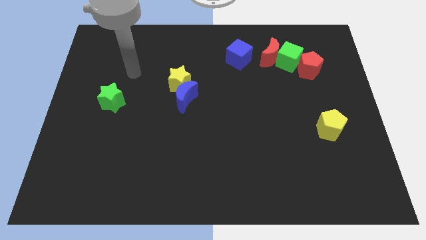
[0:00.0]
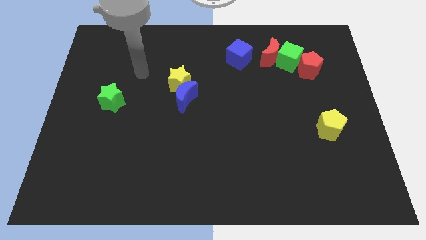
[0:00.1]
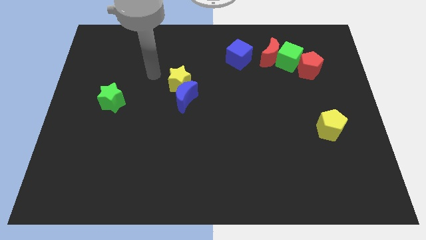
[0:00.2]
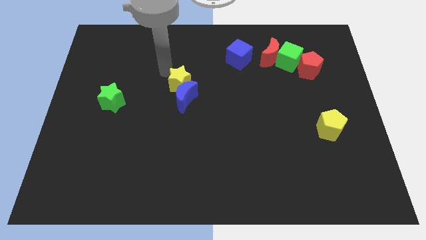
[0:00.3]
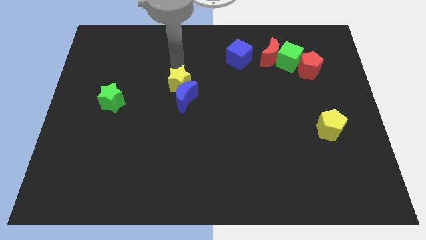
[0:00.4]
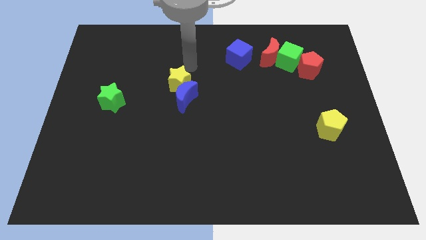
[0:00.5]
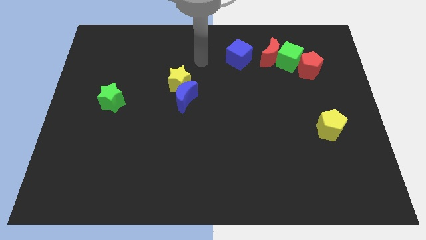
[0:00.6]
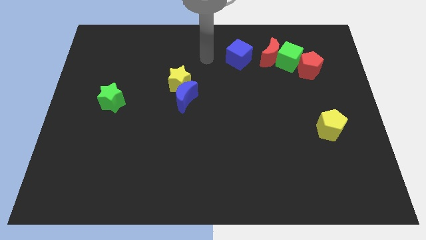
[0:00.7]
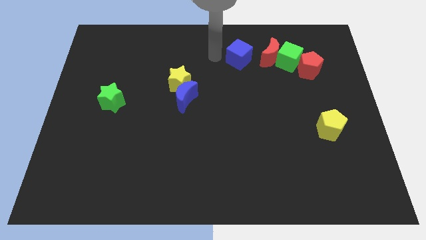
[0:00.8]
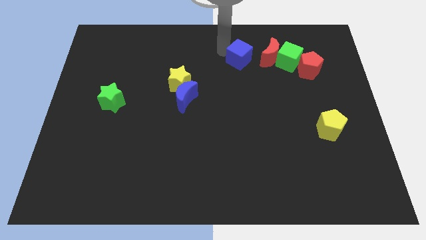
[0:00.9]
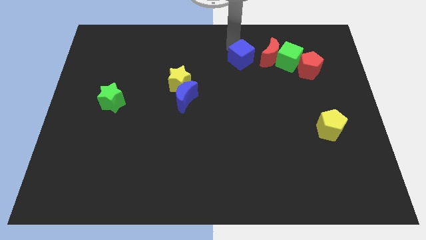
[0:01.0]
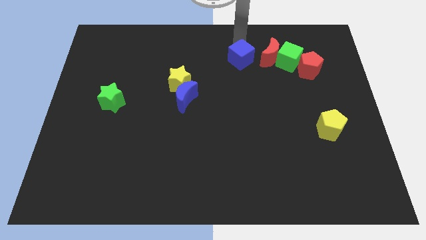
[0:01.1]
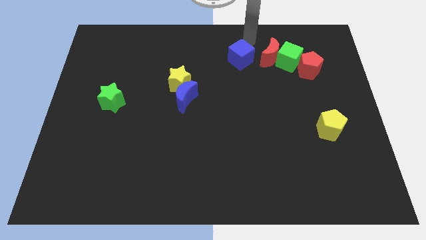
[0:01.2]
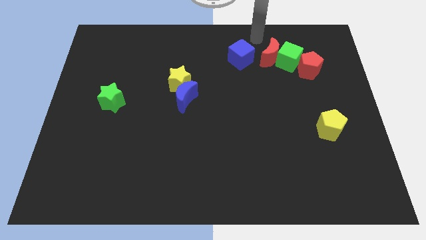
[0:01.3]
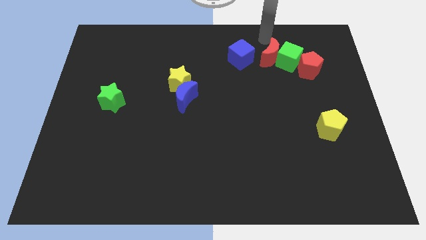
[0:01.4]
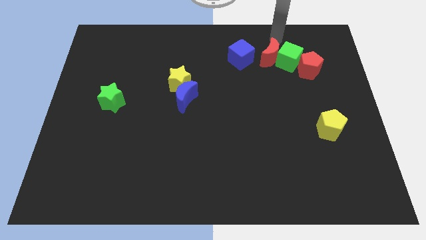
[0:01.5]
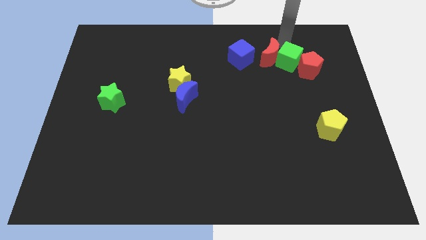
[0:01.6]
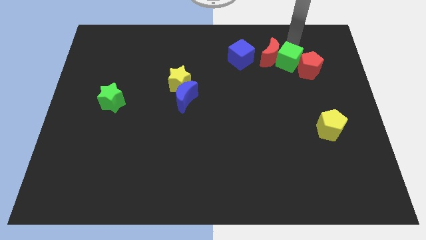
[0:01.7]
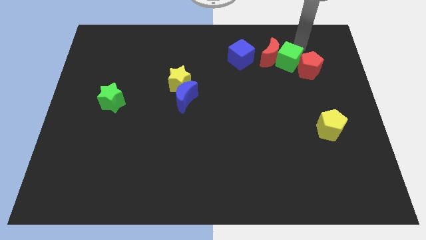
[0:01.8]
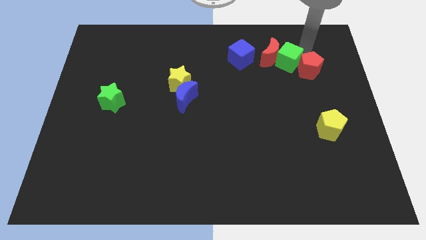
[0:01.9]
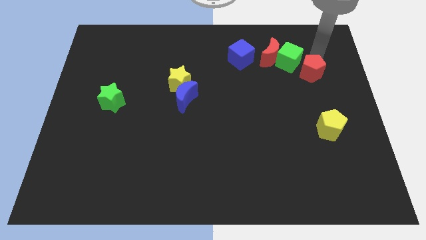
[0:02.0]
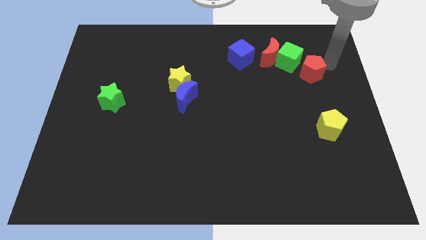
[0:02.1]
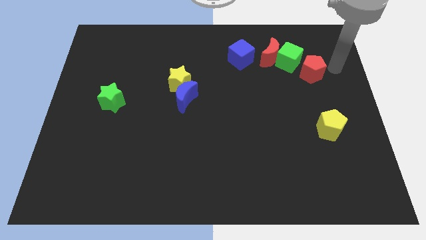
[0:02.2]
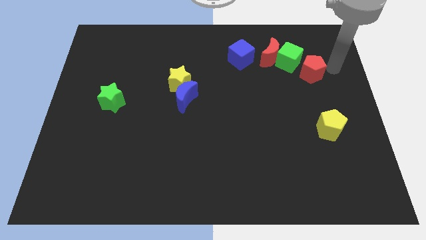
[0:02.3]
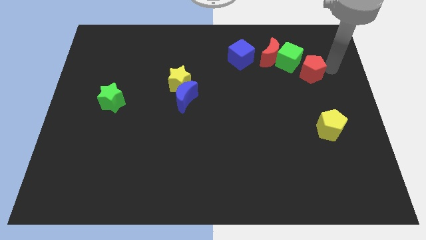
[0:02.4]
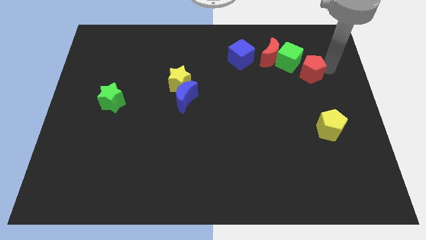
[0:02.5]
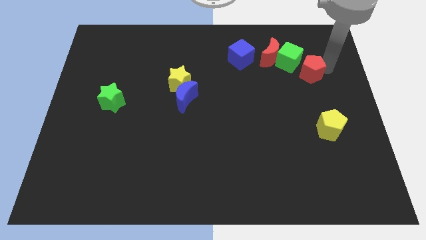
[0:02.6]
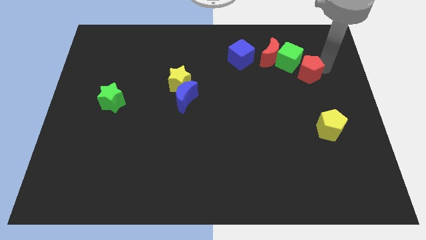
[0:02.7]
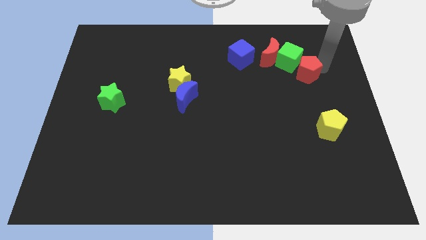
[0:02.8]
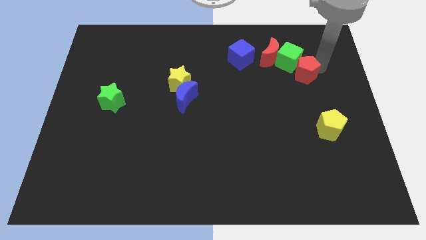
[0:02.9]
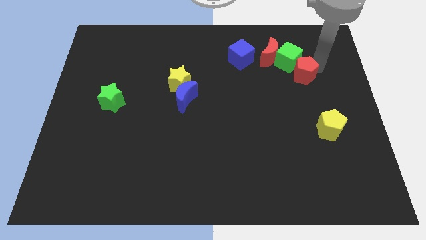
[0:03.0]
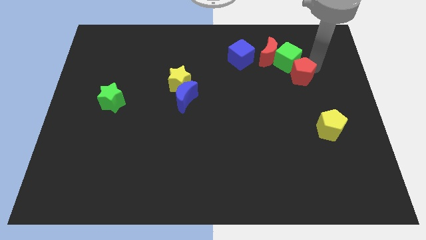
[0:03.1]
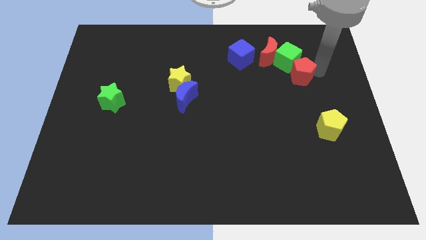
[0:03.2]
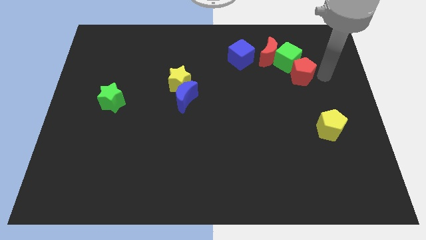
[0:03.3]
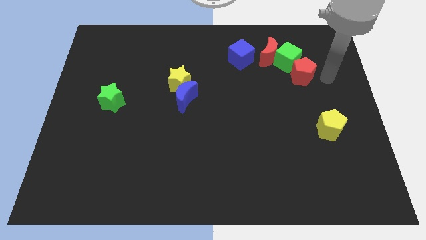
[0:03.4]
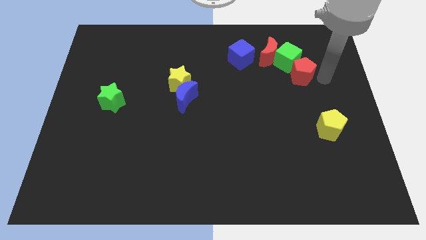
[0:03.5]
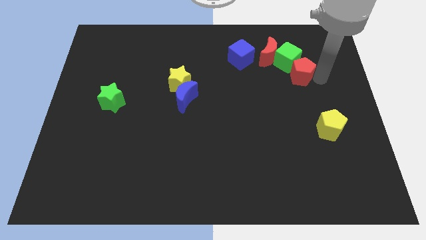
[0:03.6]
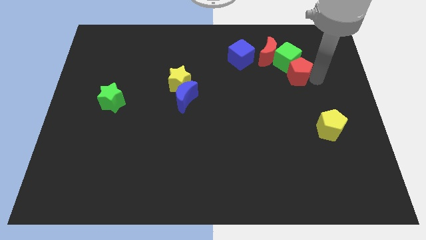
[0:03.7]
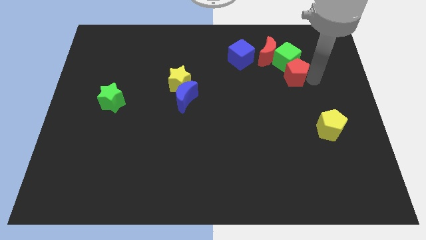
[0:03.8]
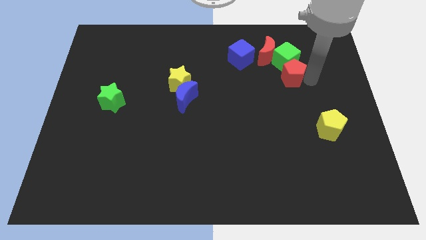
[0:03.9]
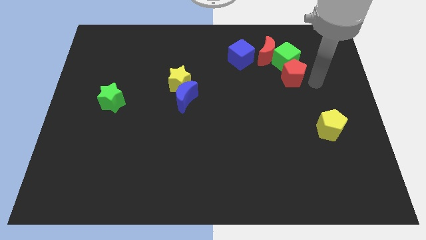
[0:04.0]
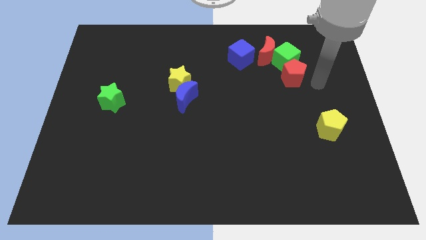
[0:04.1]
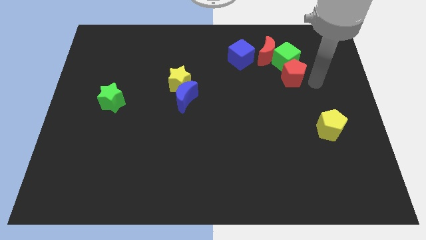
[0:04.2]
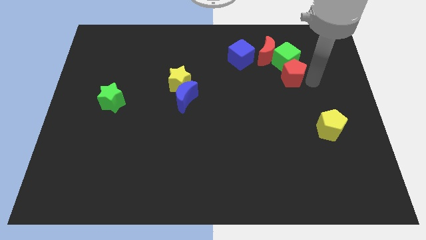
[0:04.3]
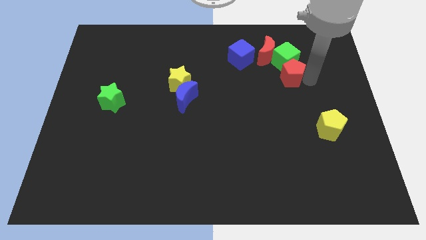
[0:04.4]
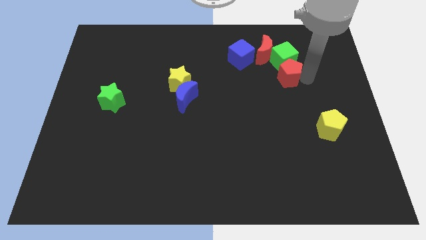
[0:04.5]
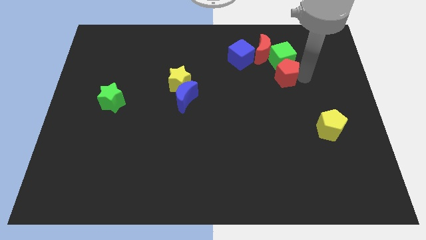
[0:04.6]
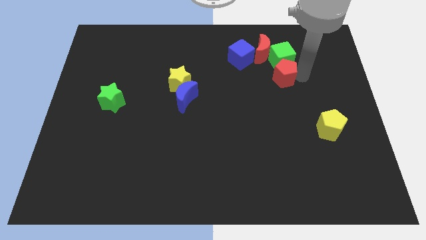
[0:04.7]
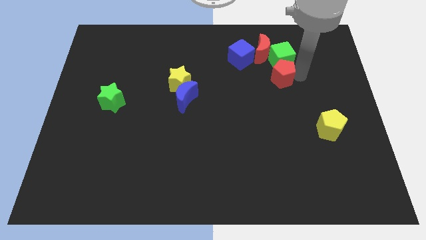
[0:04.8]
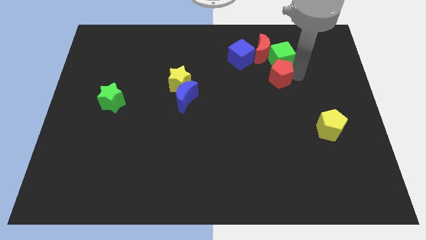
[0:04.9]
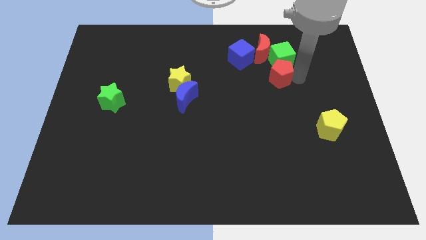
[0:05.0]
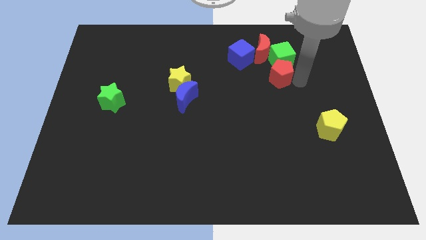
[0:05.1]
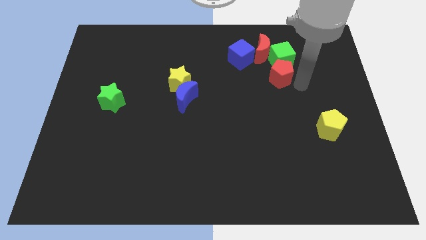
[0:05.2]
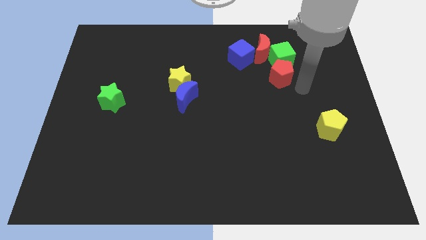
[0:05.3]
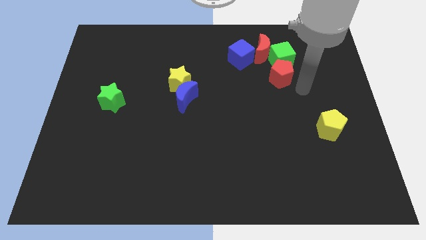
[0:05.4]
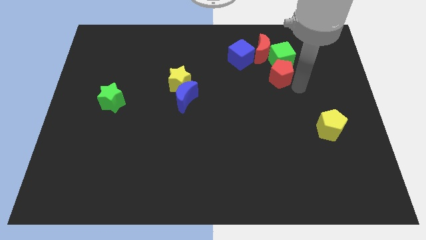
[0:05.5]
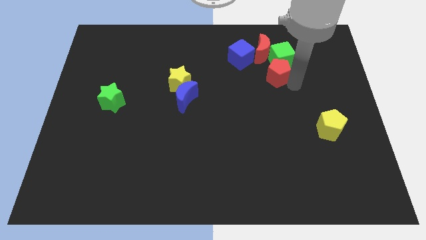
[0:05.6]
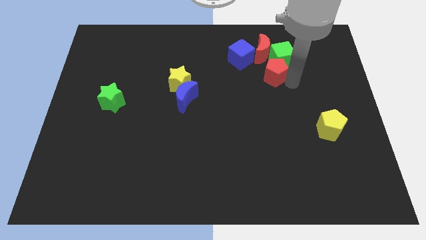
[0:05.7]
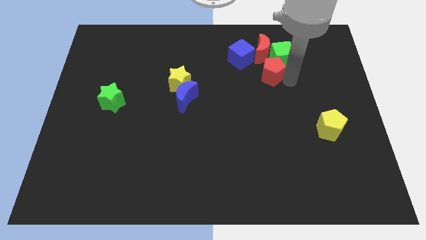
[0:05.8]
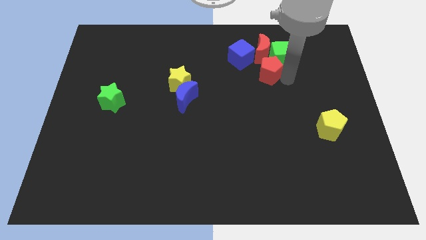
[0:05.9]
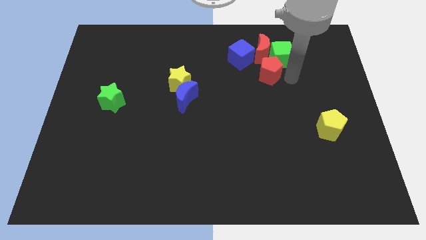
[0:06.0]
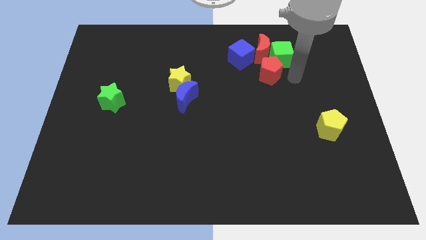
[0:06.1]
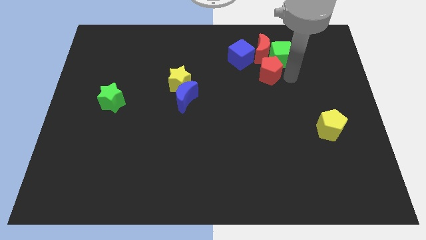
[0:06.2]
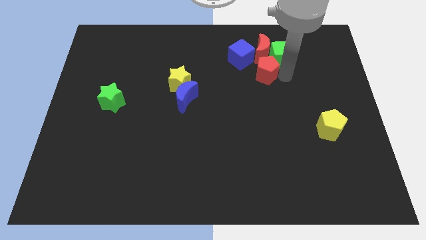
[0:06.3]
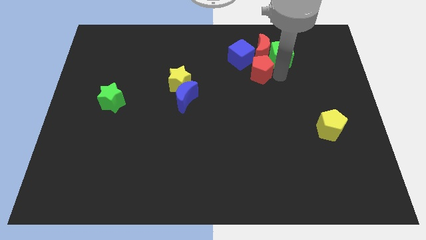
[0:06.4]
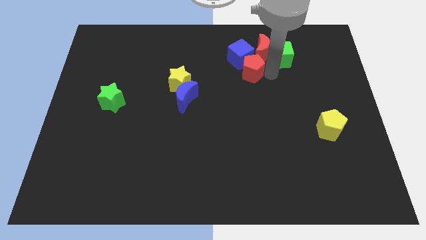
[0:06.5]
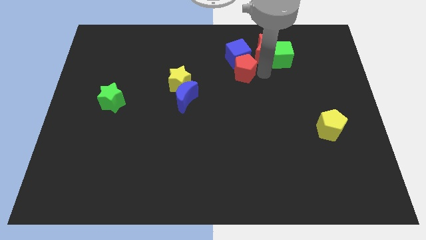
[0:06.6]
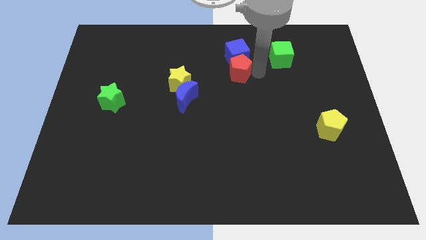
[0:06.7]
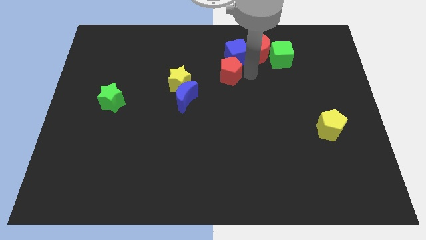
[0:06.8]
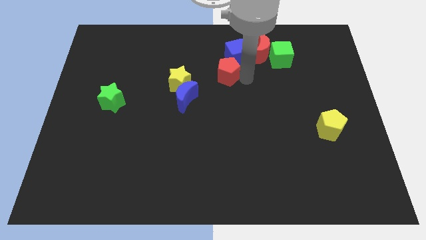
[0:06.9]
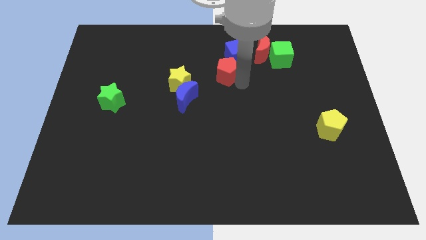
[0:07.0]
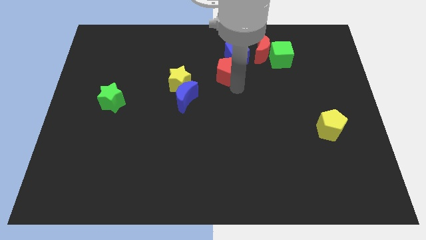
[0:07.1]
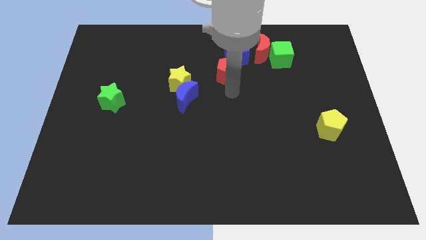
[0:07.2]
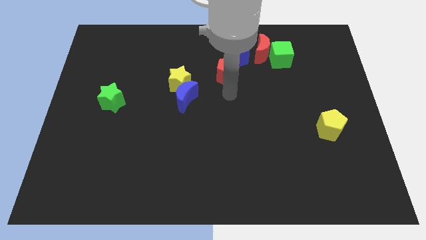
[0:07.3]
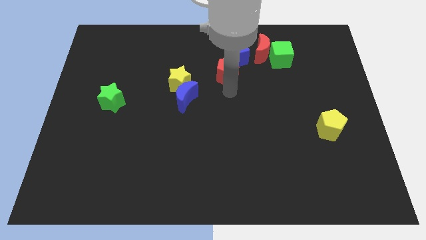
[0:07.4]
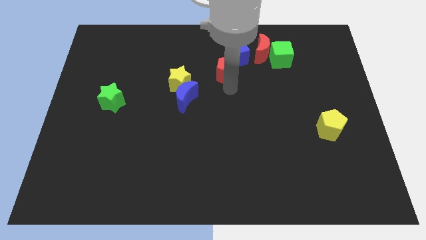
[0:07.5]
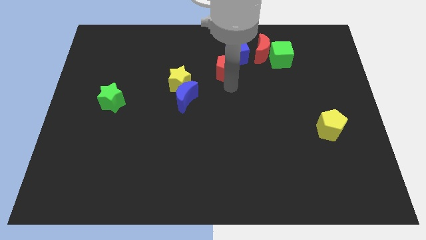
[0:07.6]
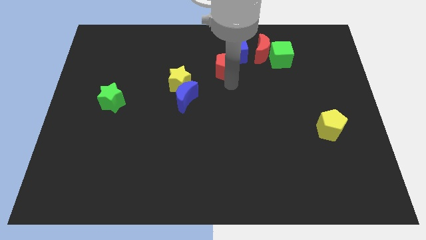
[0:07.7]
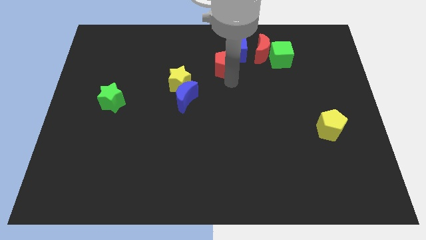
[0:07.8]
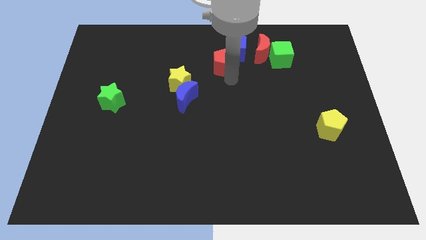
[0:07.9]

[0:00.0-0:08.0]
push the red pentagon just left of the red moon
